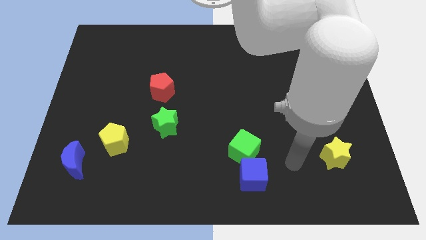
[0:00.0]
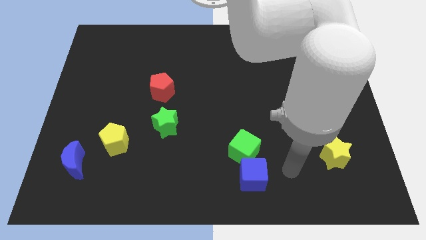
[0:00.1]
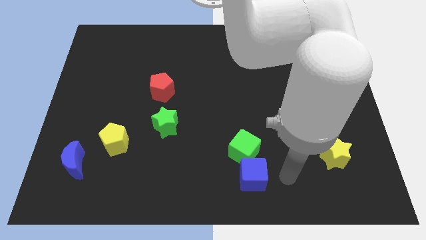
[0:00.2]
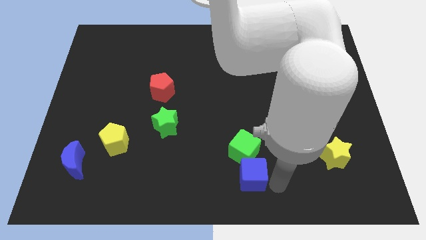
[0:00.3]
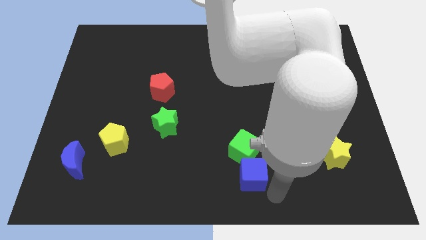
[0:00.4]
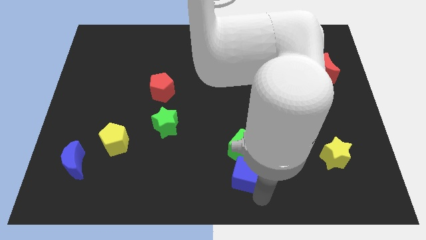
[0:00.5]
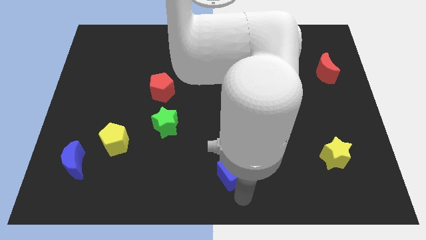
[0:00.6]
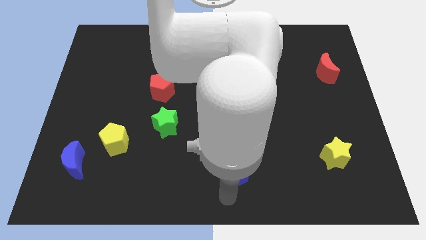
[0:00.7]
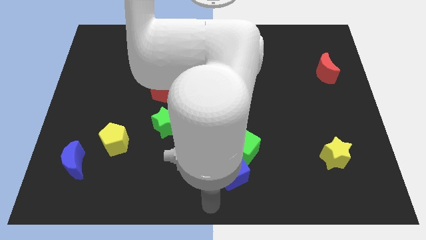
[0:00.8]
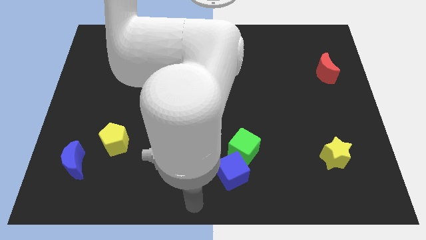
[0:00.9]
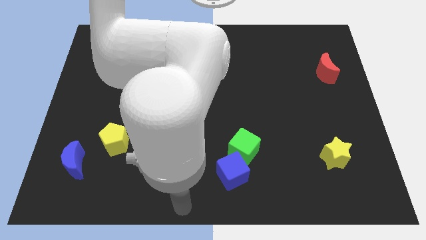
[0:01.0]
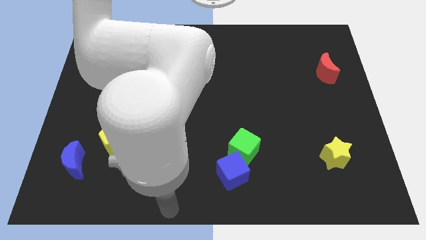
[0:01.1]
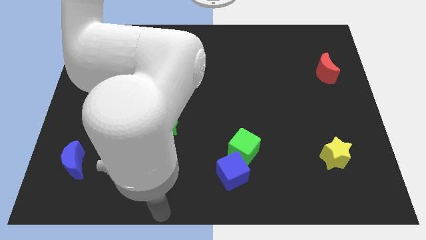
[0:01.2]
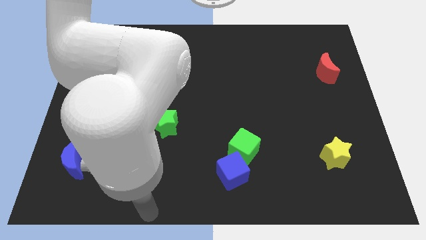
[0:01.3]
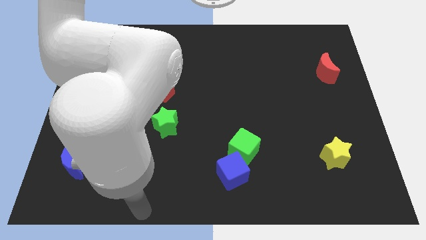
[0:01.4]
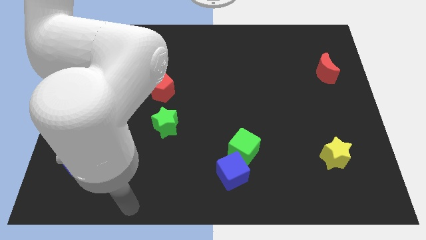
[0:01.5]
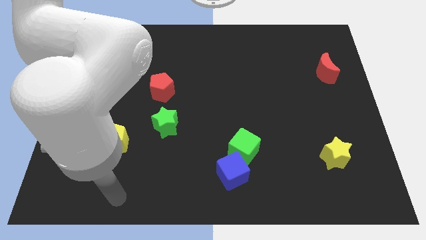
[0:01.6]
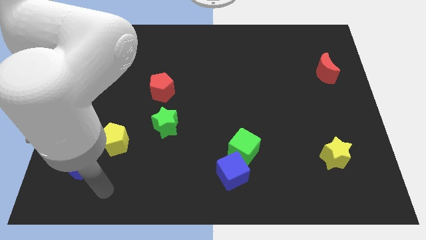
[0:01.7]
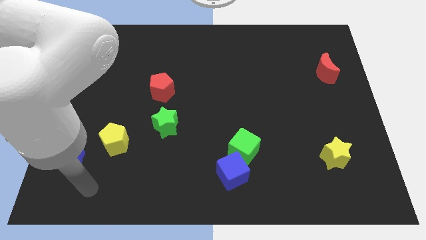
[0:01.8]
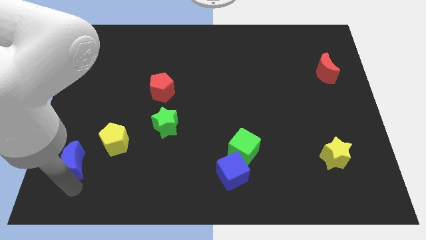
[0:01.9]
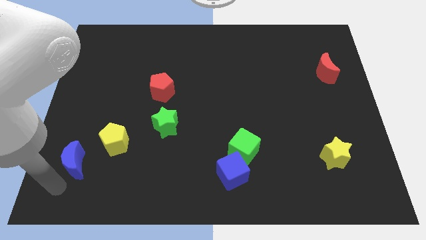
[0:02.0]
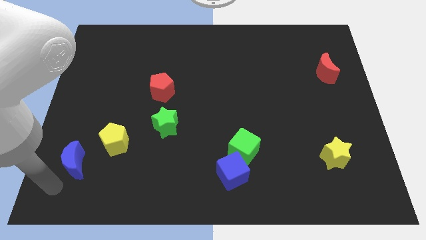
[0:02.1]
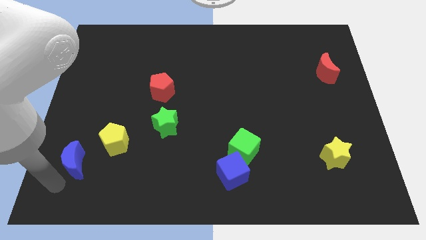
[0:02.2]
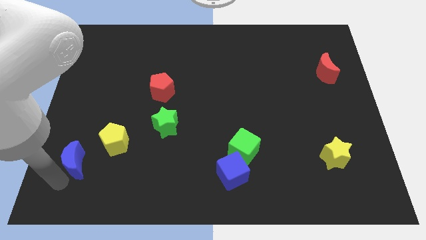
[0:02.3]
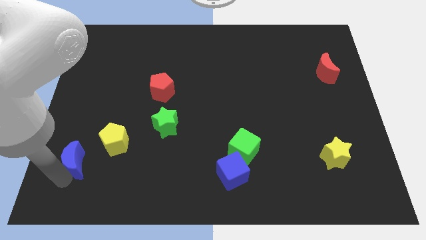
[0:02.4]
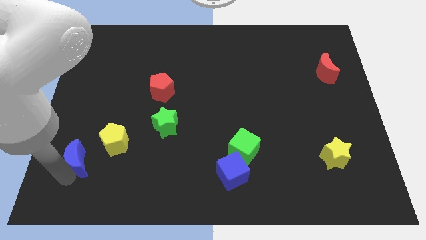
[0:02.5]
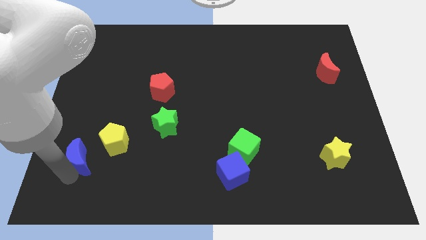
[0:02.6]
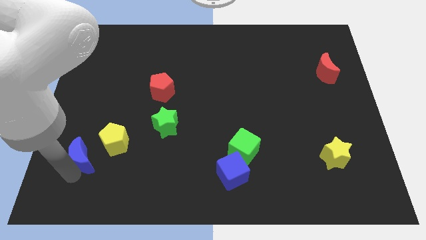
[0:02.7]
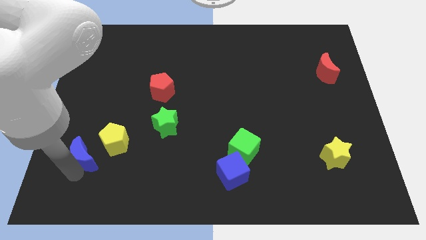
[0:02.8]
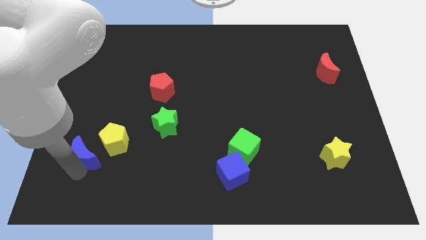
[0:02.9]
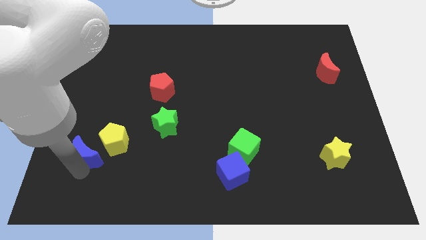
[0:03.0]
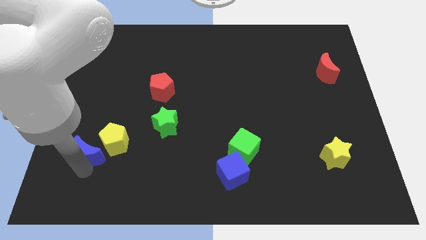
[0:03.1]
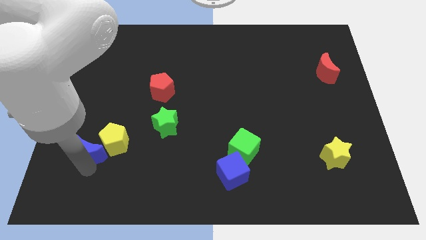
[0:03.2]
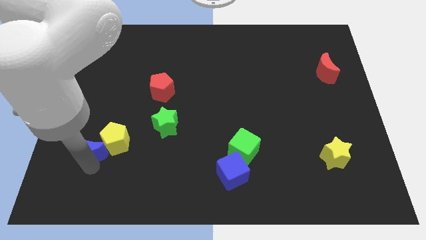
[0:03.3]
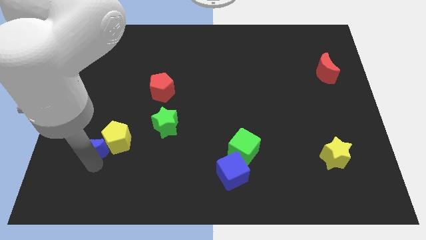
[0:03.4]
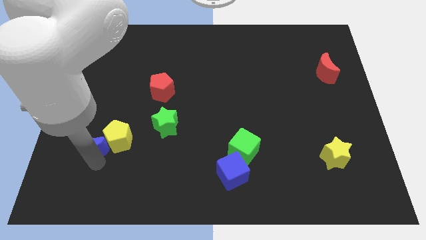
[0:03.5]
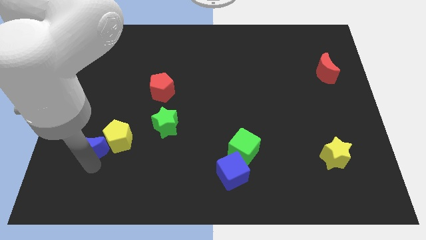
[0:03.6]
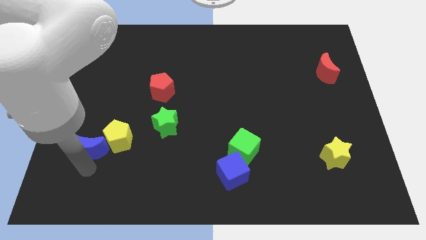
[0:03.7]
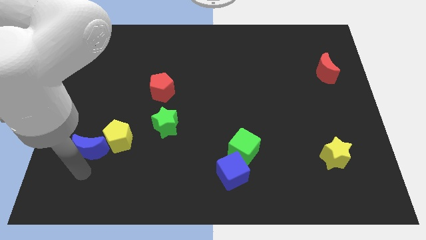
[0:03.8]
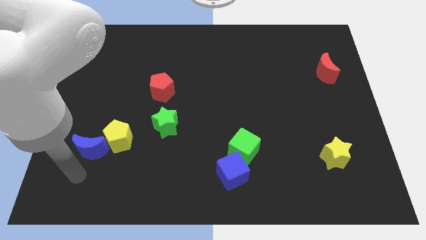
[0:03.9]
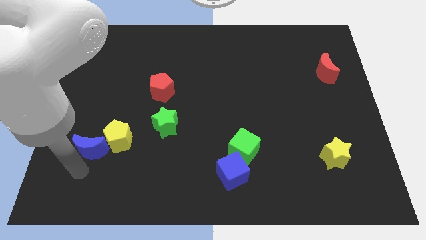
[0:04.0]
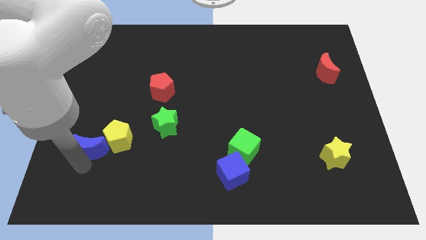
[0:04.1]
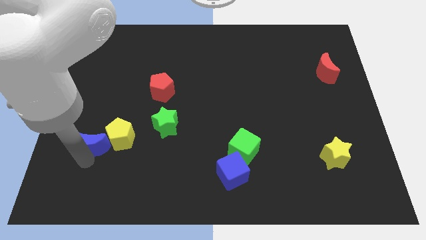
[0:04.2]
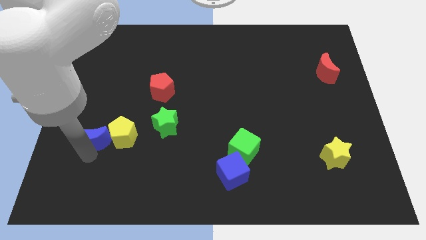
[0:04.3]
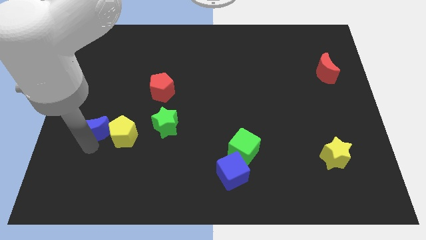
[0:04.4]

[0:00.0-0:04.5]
move the blue moon up and then to the right a little

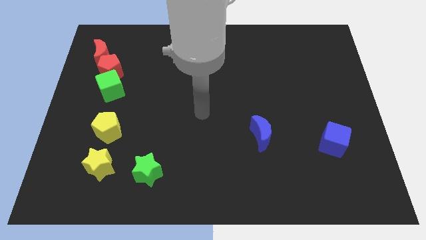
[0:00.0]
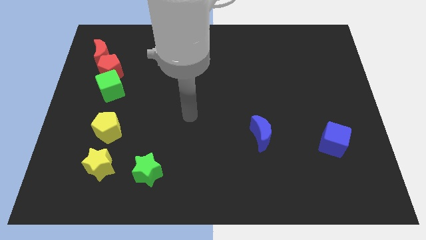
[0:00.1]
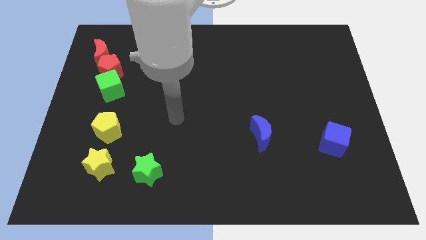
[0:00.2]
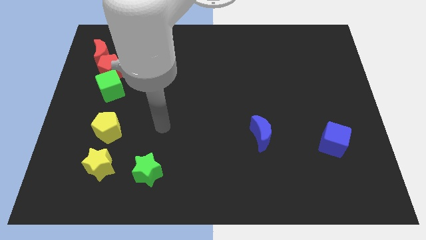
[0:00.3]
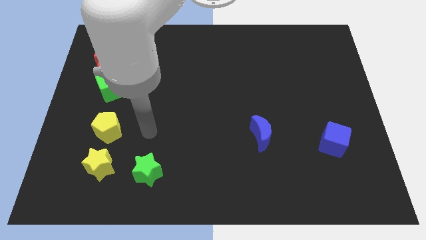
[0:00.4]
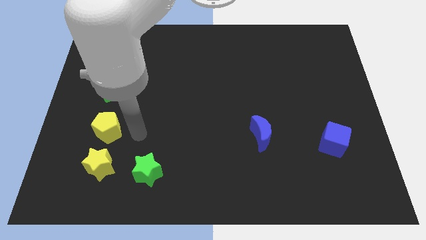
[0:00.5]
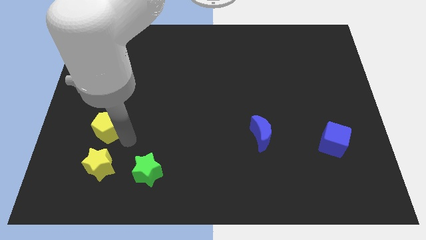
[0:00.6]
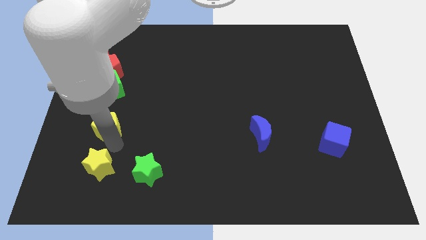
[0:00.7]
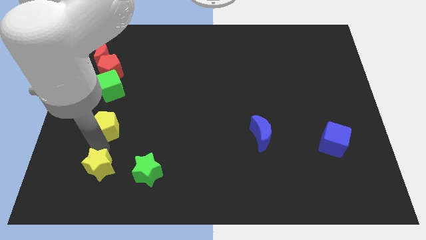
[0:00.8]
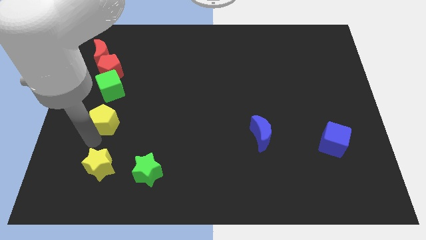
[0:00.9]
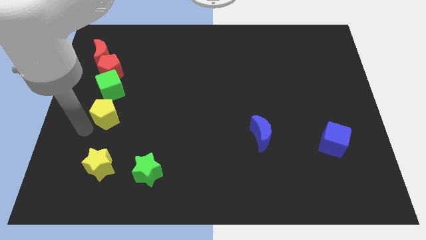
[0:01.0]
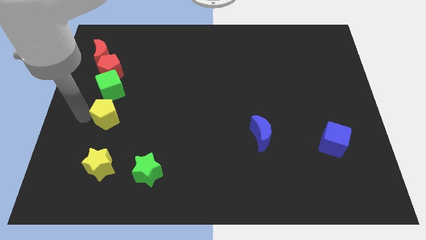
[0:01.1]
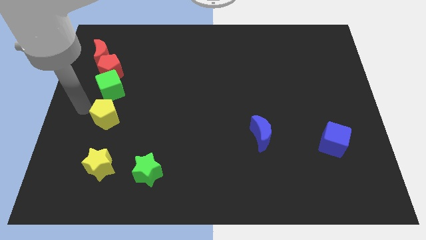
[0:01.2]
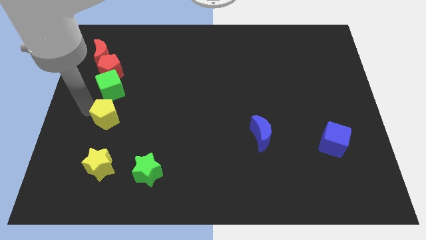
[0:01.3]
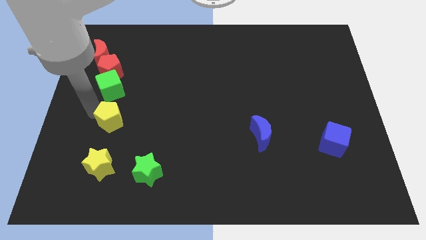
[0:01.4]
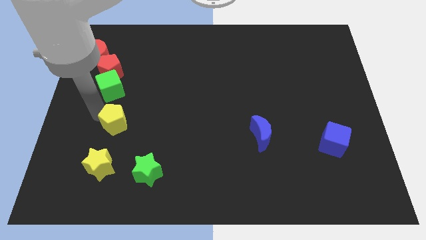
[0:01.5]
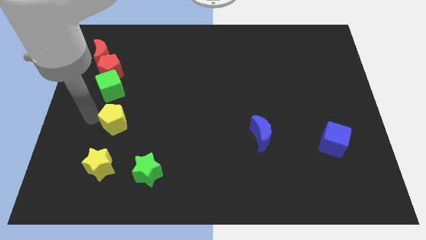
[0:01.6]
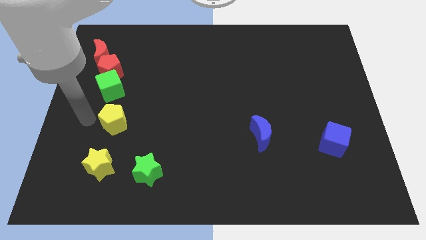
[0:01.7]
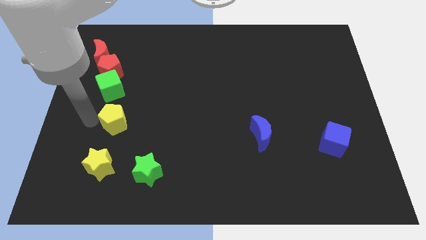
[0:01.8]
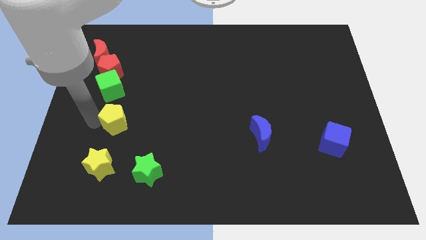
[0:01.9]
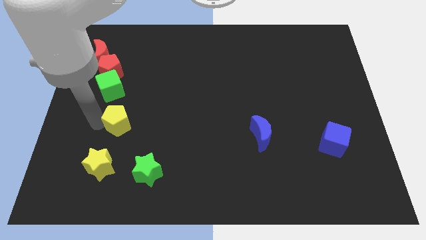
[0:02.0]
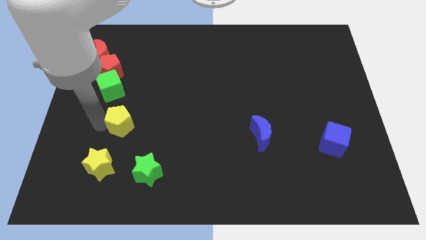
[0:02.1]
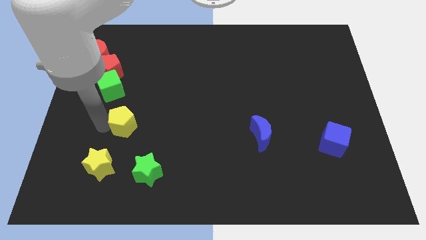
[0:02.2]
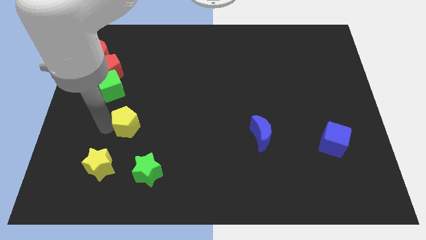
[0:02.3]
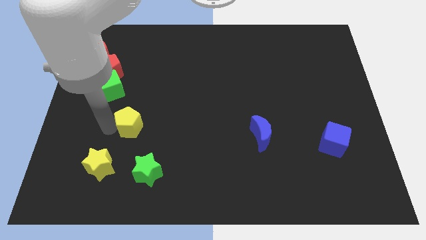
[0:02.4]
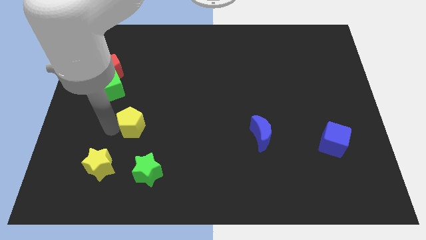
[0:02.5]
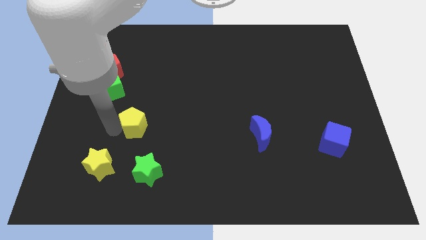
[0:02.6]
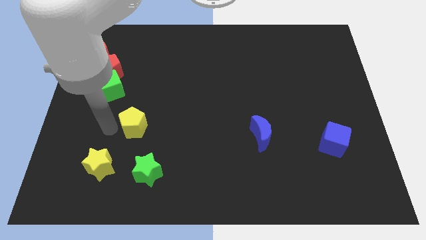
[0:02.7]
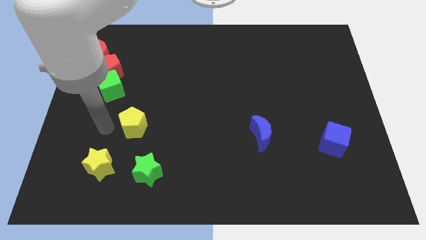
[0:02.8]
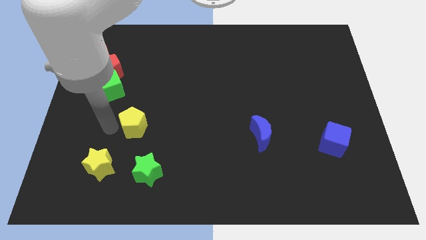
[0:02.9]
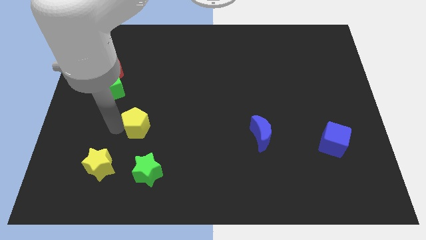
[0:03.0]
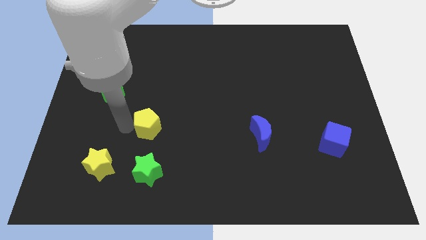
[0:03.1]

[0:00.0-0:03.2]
slightly slide the yellow pentagon right
